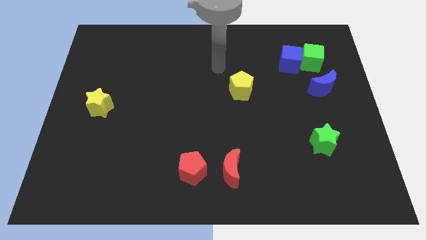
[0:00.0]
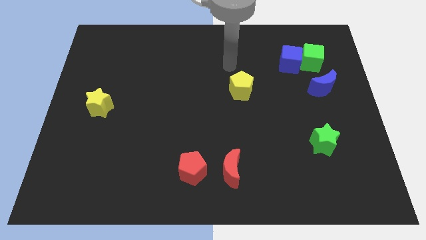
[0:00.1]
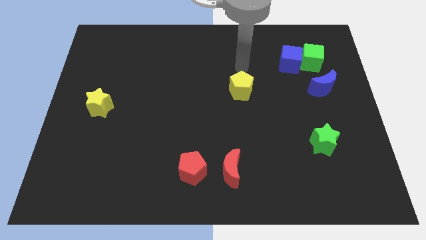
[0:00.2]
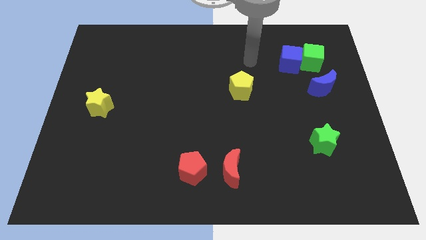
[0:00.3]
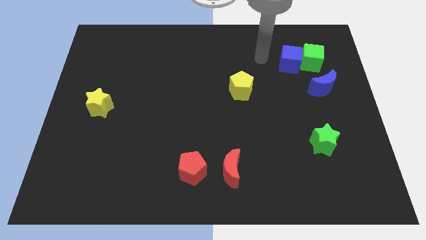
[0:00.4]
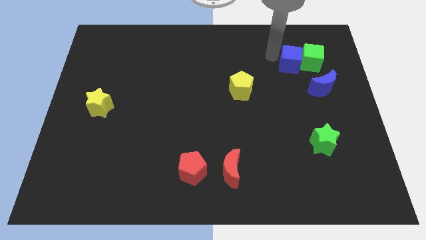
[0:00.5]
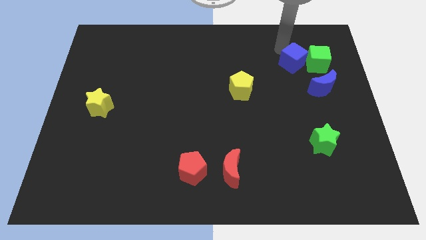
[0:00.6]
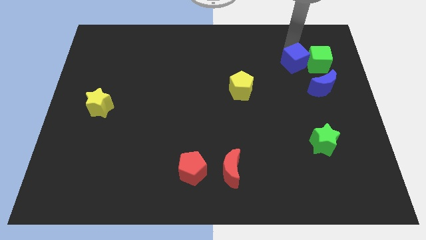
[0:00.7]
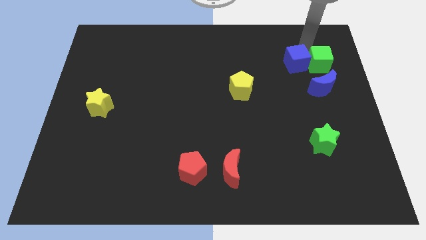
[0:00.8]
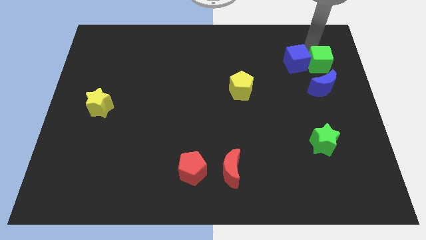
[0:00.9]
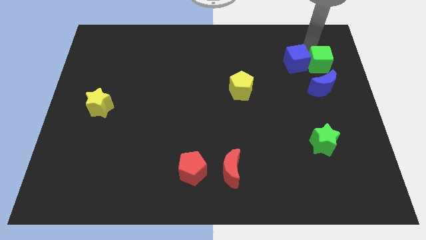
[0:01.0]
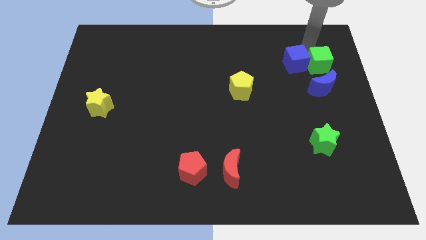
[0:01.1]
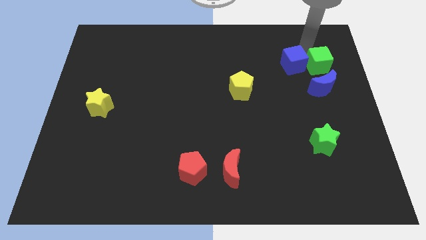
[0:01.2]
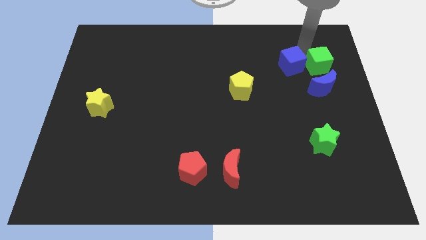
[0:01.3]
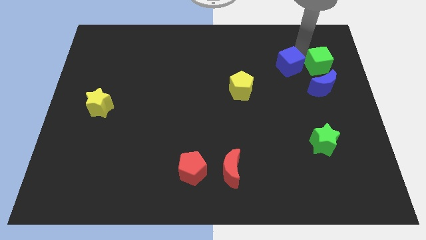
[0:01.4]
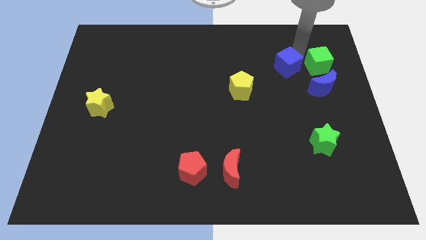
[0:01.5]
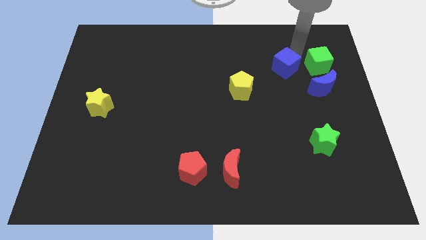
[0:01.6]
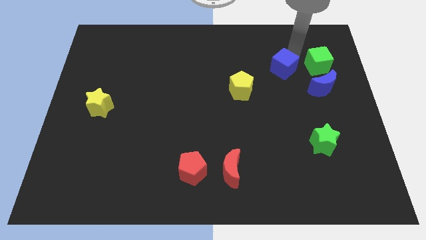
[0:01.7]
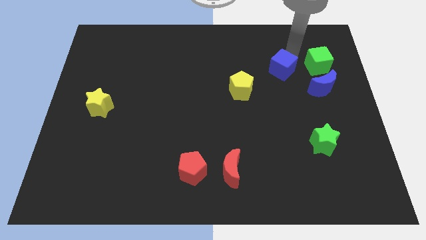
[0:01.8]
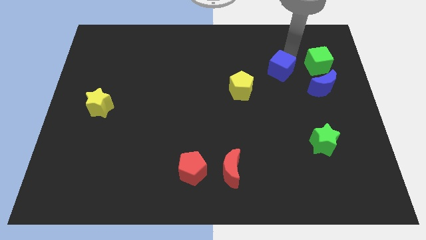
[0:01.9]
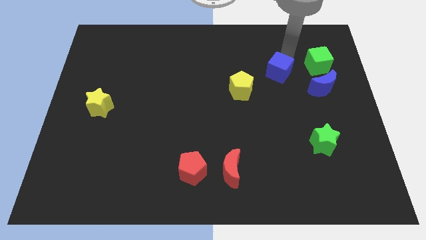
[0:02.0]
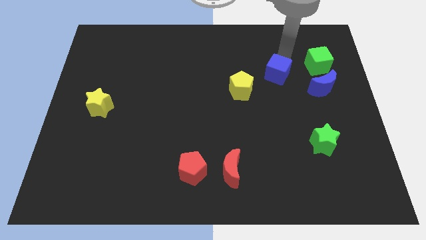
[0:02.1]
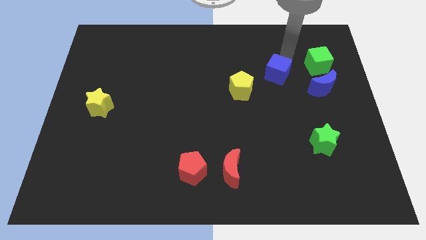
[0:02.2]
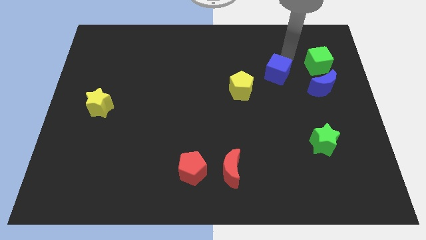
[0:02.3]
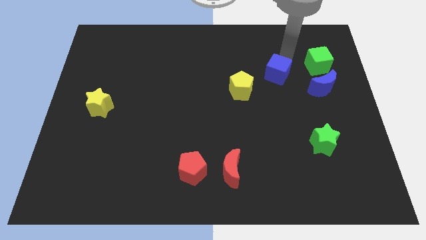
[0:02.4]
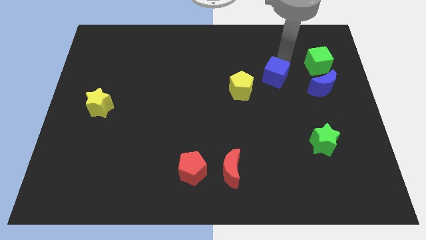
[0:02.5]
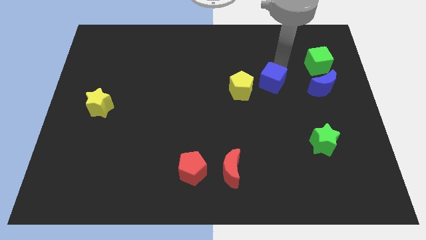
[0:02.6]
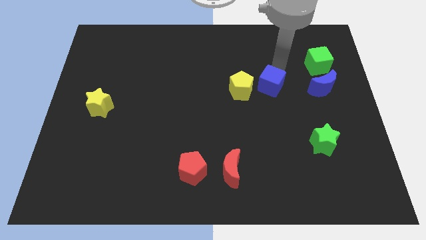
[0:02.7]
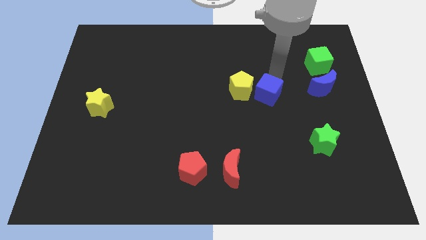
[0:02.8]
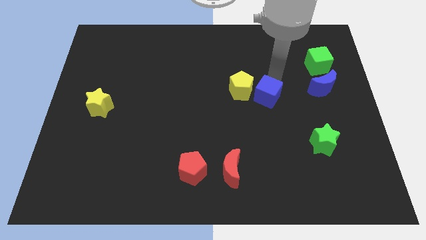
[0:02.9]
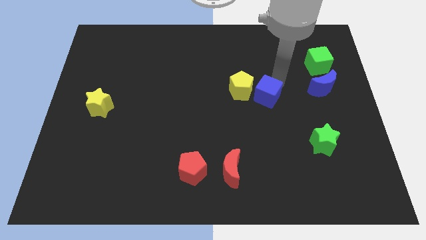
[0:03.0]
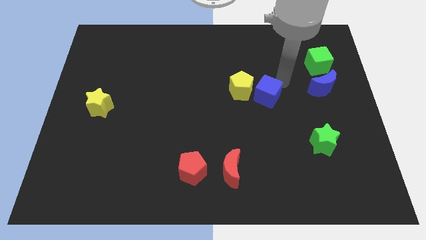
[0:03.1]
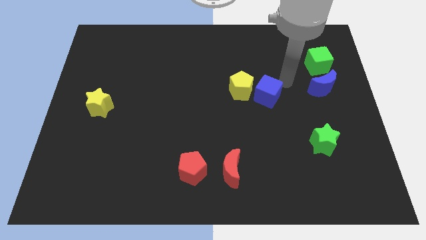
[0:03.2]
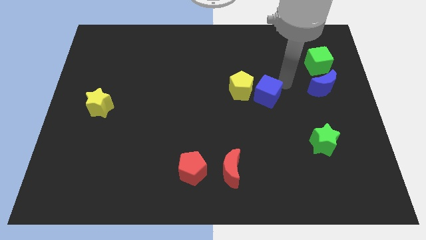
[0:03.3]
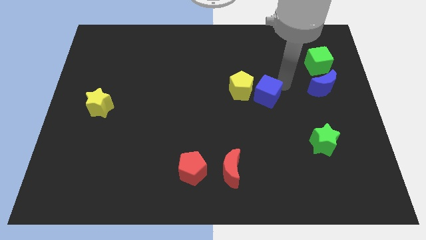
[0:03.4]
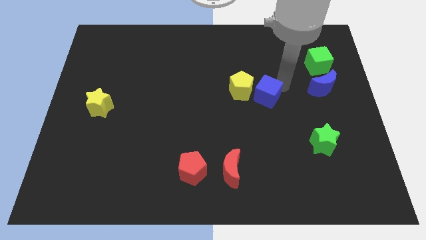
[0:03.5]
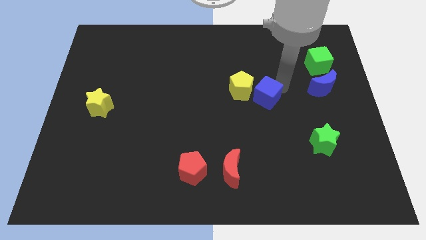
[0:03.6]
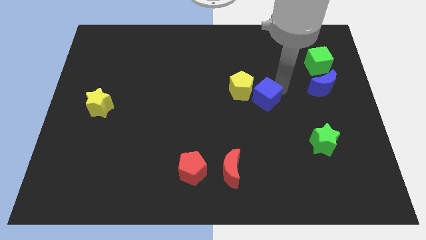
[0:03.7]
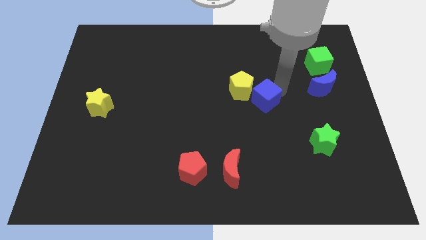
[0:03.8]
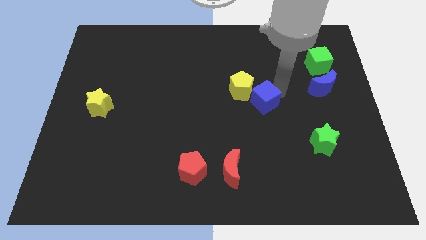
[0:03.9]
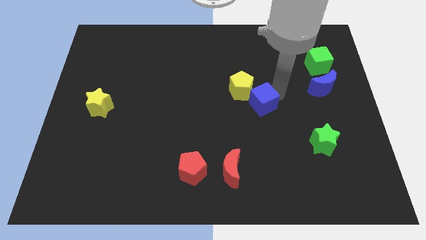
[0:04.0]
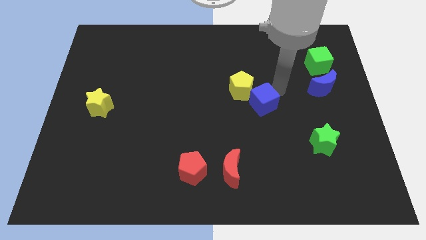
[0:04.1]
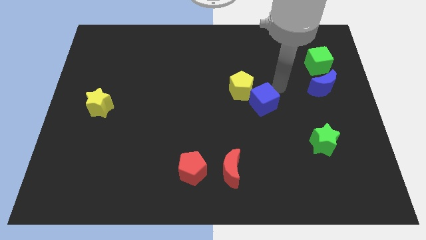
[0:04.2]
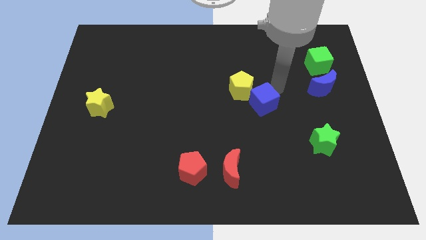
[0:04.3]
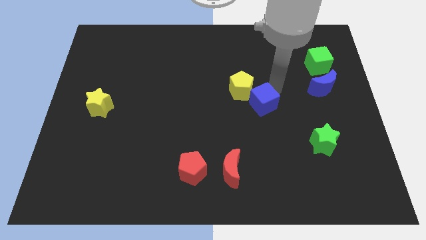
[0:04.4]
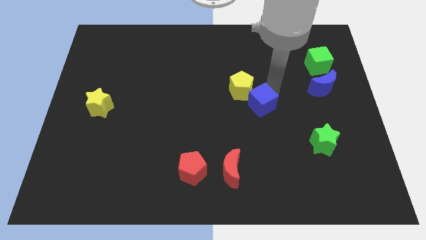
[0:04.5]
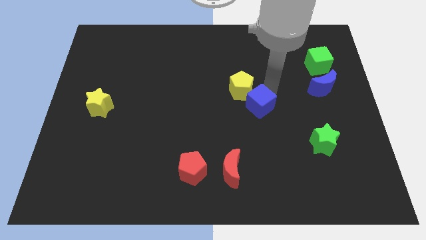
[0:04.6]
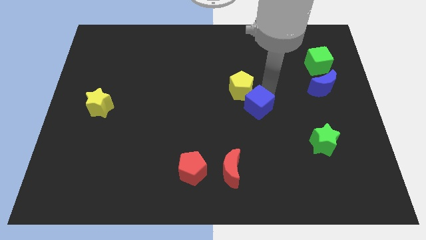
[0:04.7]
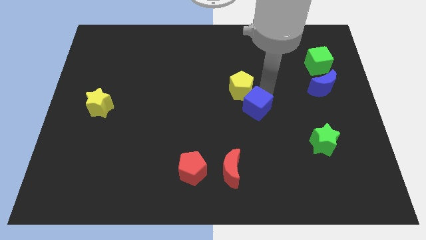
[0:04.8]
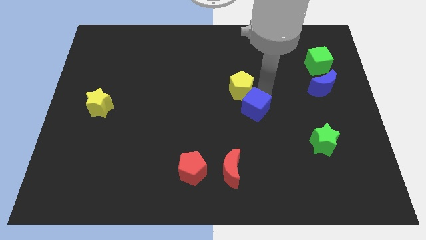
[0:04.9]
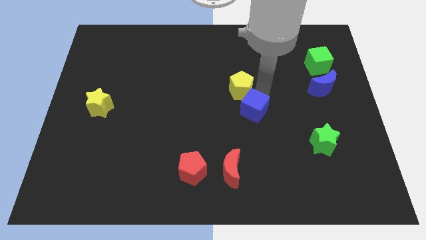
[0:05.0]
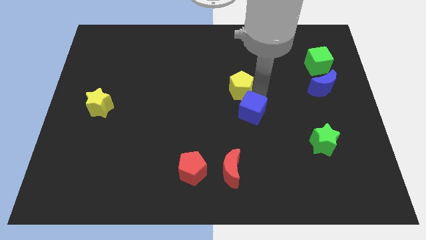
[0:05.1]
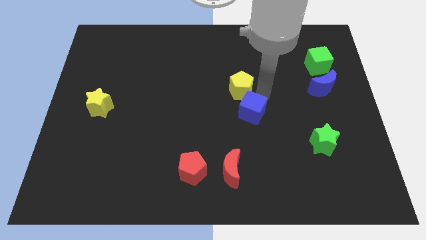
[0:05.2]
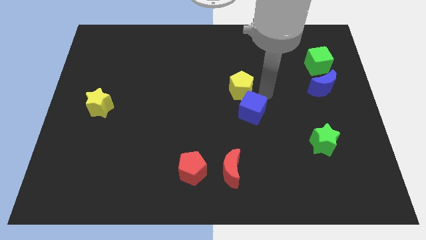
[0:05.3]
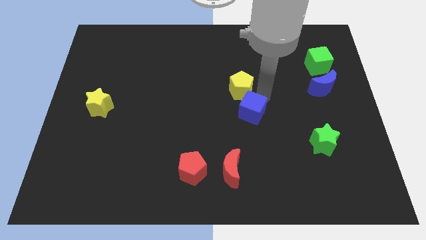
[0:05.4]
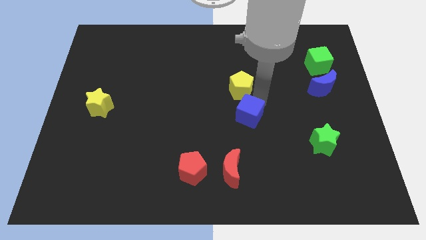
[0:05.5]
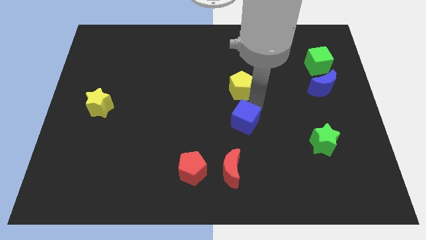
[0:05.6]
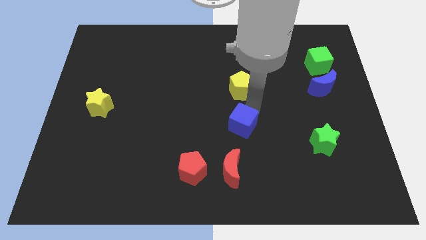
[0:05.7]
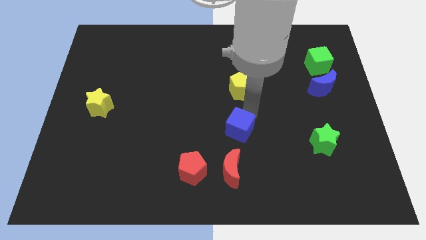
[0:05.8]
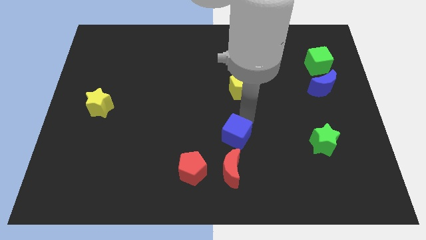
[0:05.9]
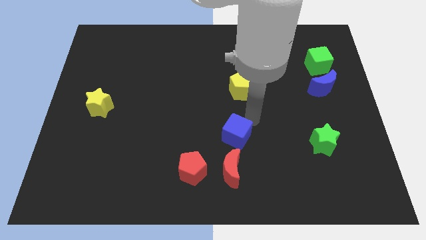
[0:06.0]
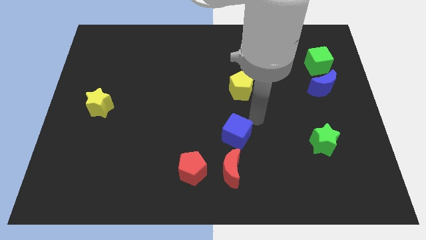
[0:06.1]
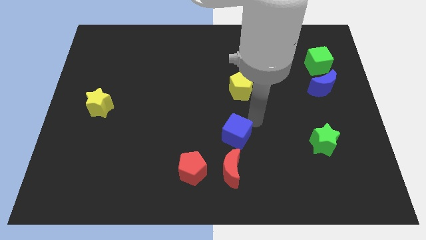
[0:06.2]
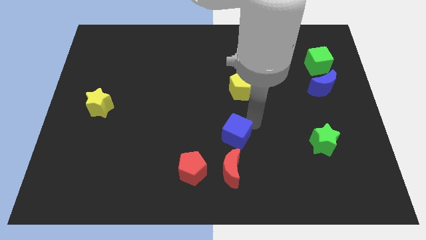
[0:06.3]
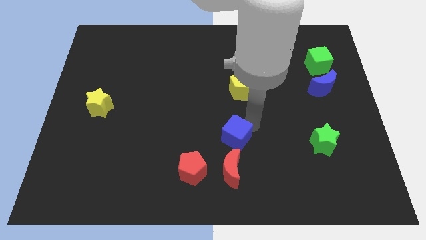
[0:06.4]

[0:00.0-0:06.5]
push the blue cube to the top right of the red pentagon

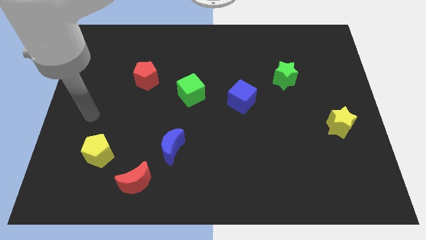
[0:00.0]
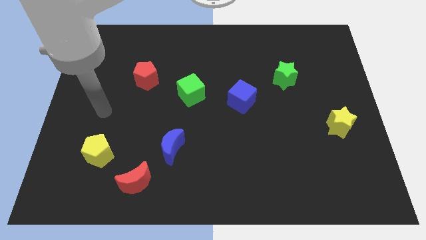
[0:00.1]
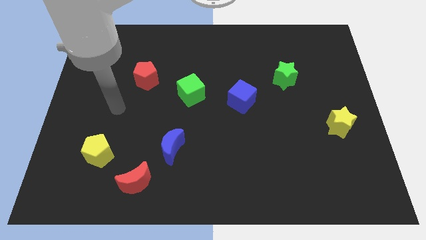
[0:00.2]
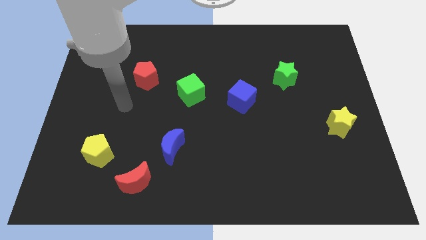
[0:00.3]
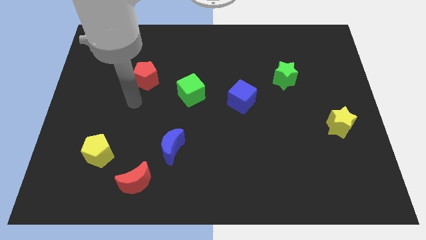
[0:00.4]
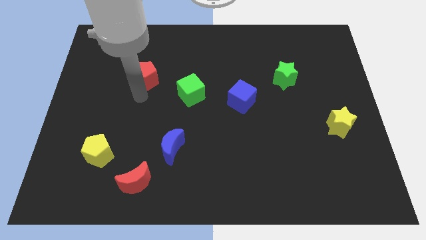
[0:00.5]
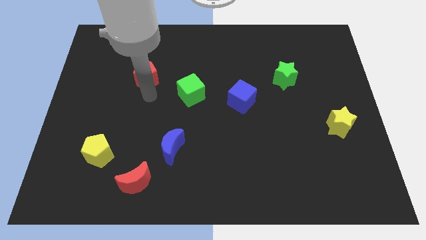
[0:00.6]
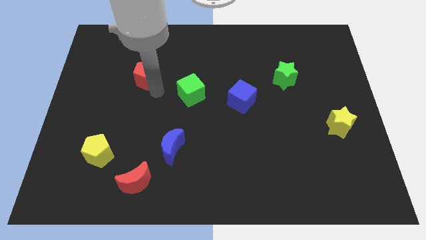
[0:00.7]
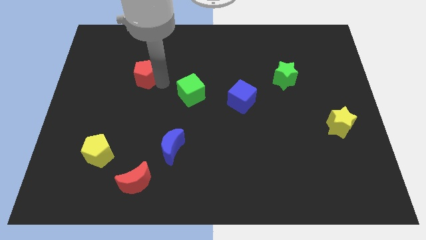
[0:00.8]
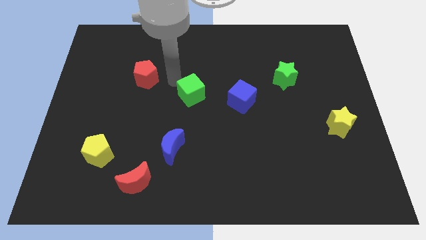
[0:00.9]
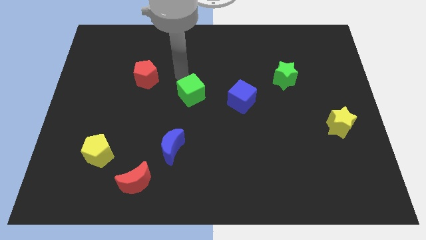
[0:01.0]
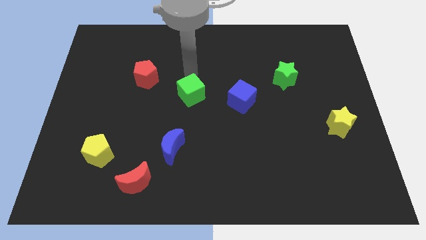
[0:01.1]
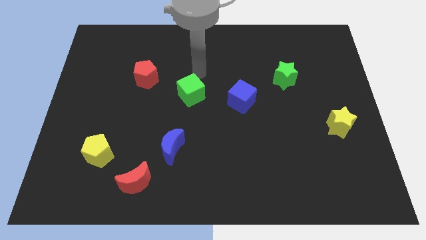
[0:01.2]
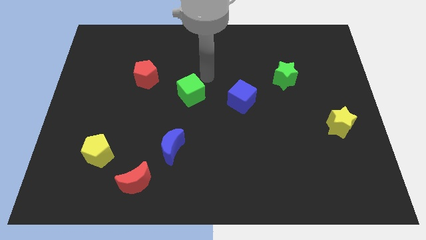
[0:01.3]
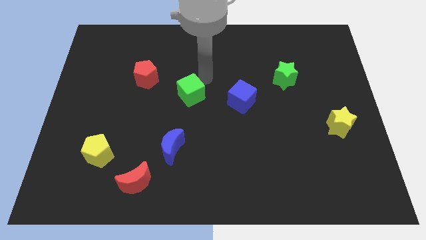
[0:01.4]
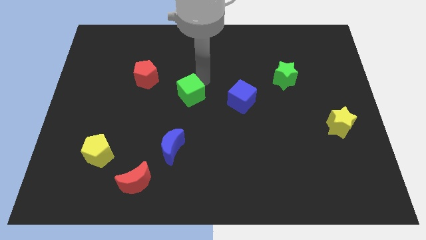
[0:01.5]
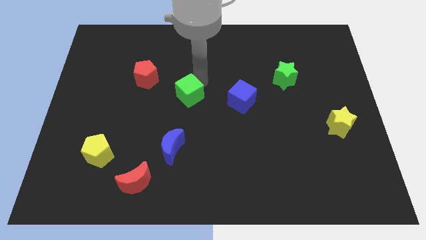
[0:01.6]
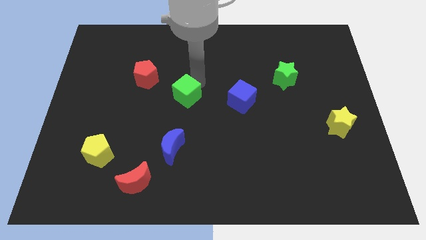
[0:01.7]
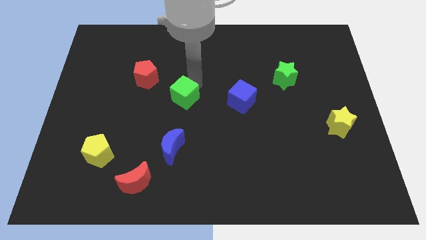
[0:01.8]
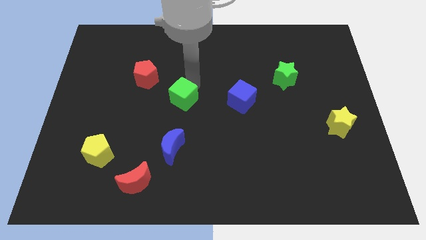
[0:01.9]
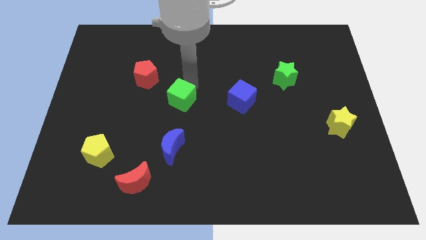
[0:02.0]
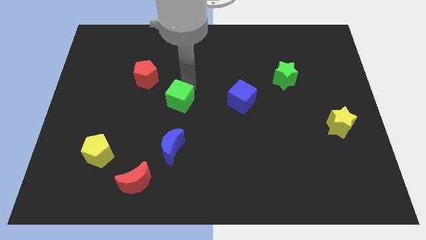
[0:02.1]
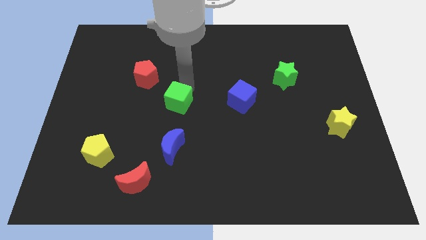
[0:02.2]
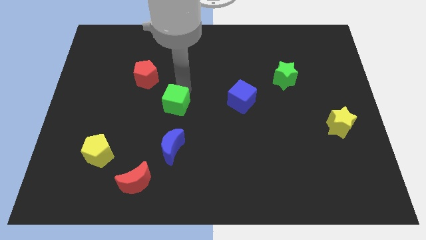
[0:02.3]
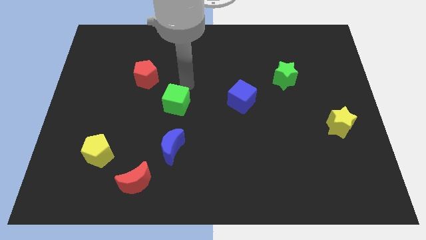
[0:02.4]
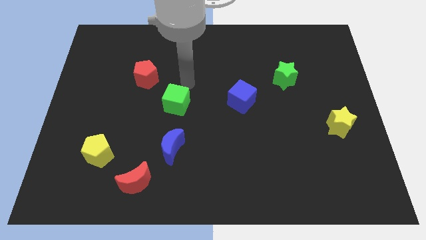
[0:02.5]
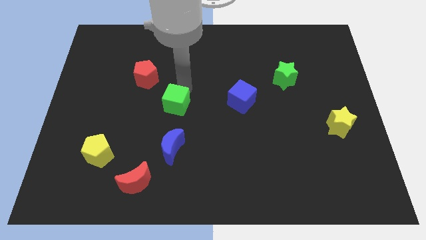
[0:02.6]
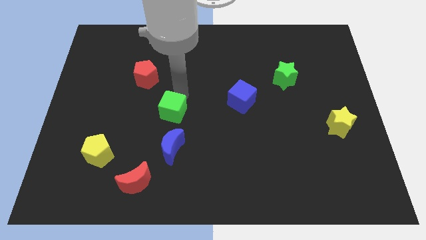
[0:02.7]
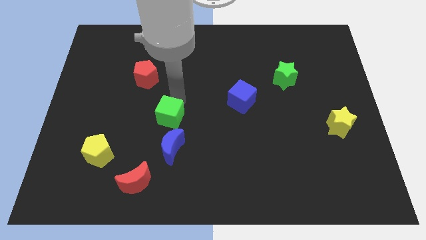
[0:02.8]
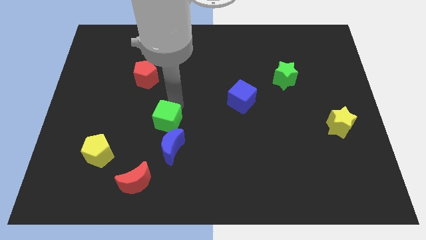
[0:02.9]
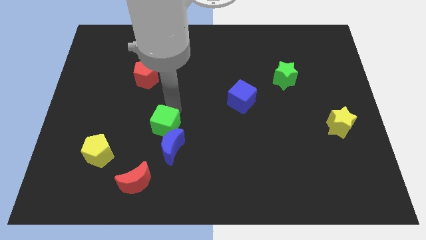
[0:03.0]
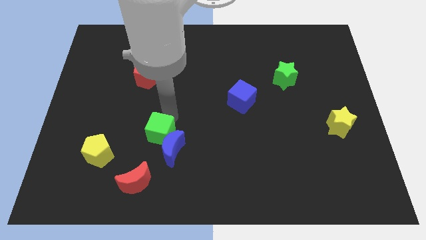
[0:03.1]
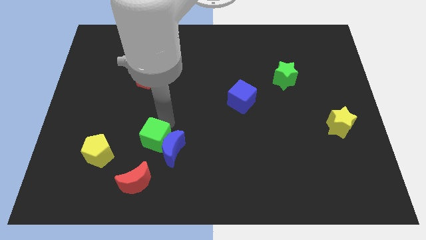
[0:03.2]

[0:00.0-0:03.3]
slide the green cube just right of the yellow pentagon
